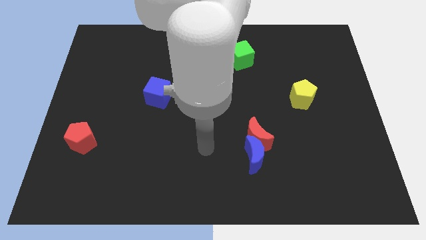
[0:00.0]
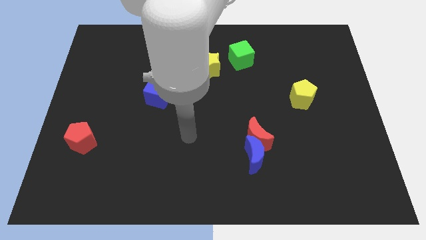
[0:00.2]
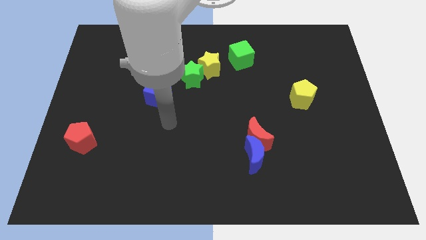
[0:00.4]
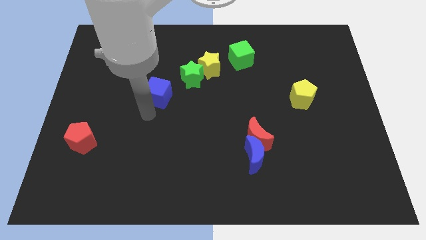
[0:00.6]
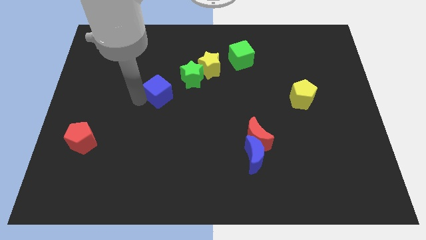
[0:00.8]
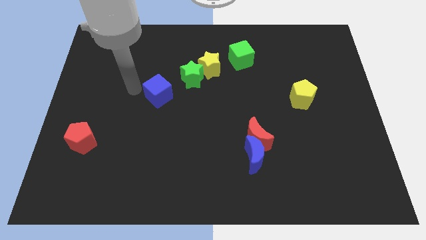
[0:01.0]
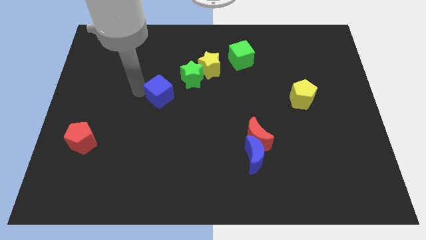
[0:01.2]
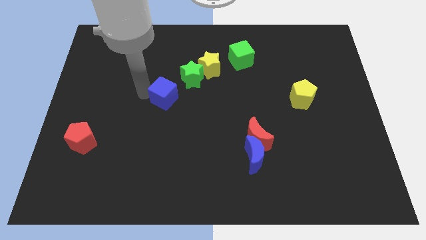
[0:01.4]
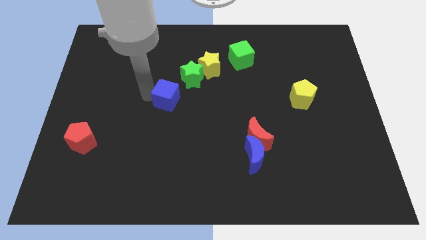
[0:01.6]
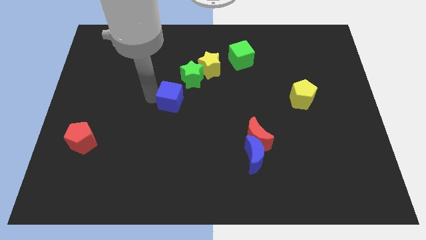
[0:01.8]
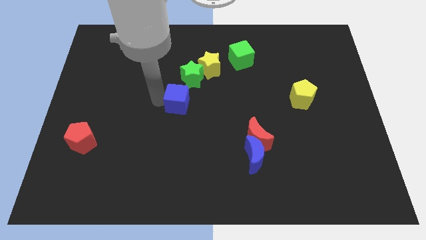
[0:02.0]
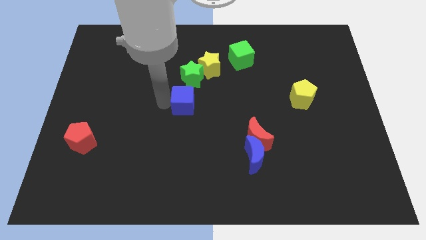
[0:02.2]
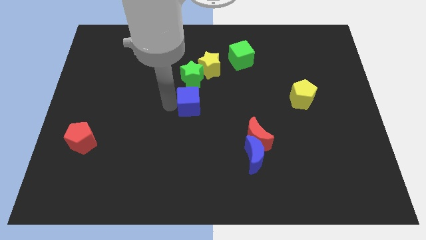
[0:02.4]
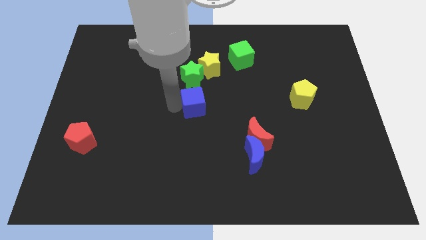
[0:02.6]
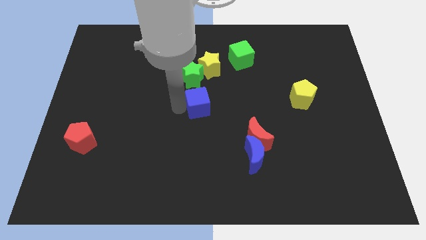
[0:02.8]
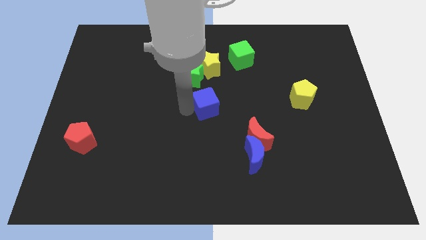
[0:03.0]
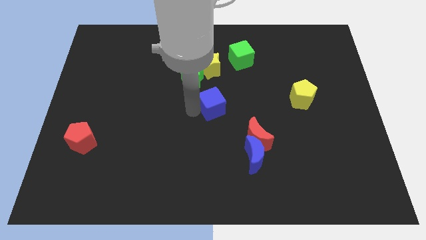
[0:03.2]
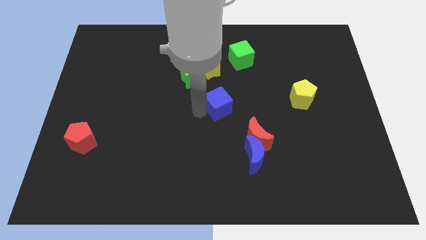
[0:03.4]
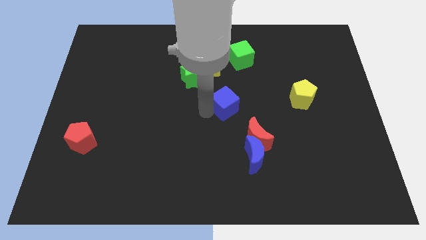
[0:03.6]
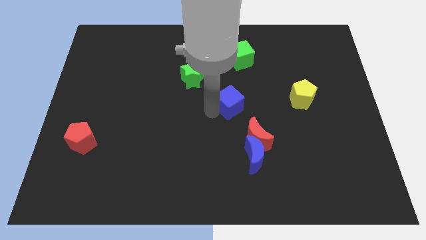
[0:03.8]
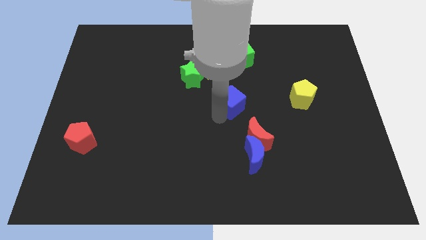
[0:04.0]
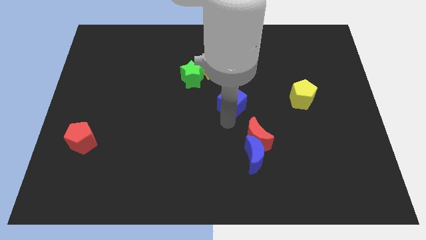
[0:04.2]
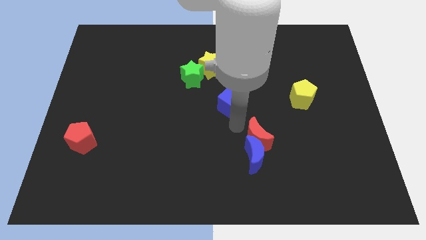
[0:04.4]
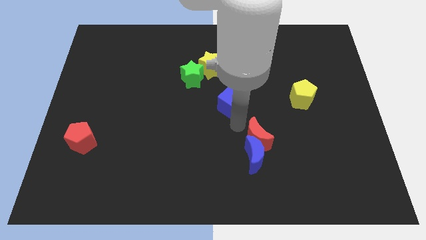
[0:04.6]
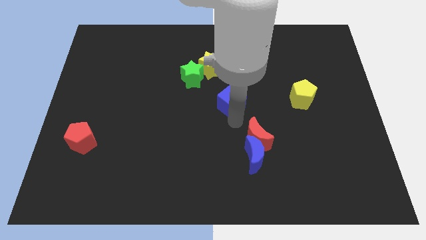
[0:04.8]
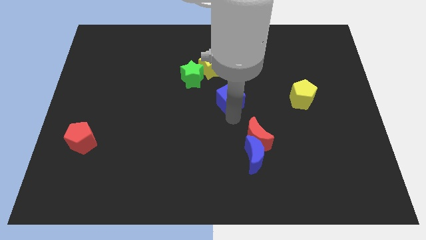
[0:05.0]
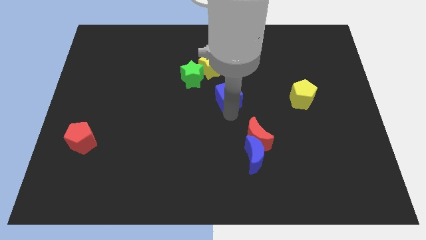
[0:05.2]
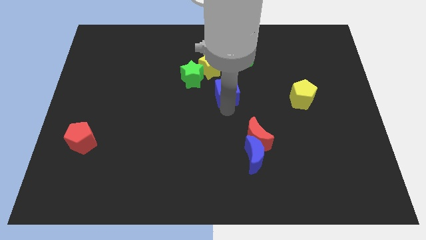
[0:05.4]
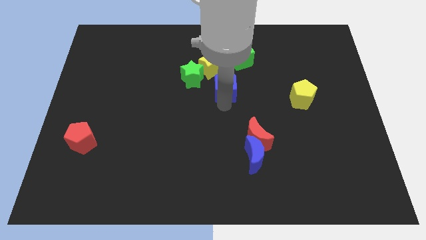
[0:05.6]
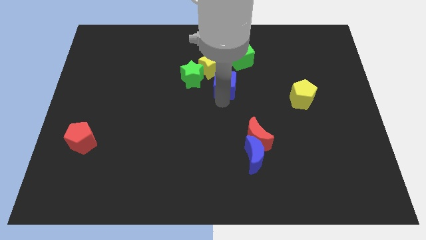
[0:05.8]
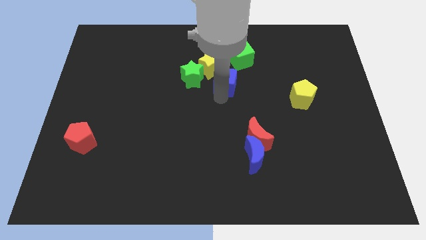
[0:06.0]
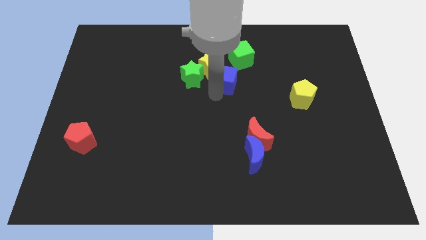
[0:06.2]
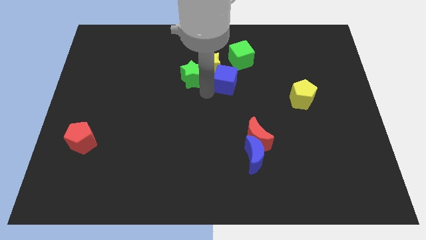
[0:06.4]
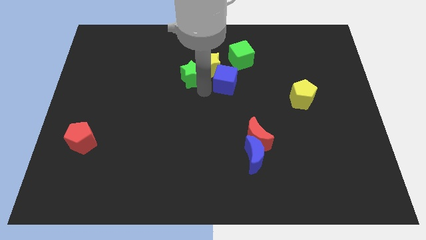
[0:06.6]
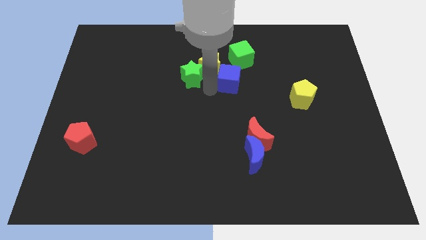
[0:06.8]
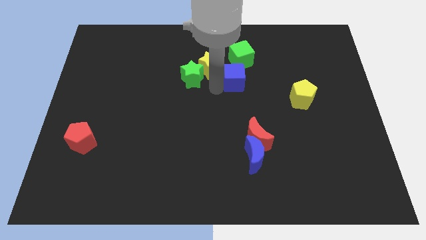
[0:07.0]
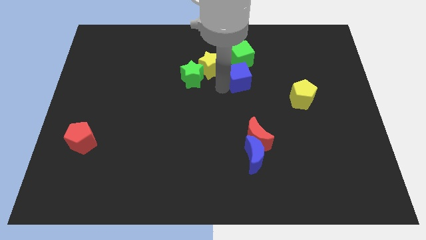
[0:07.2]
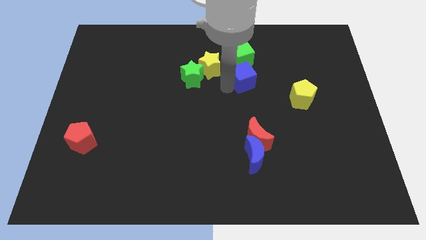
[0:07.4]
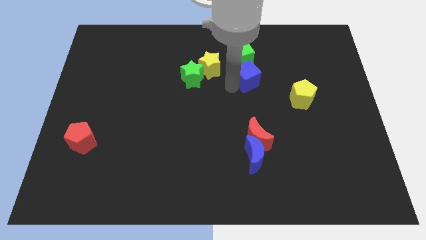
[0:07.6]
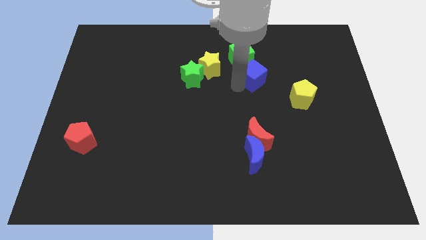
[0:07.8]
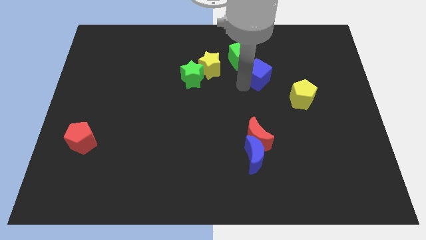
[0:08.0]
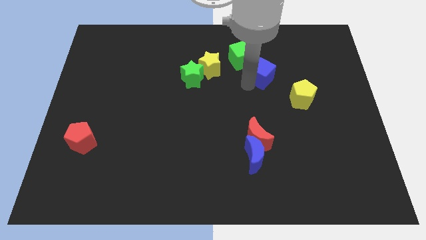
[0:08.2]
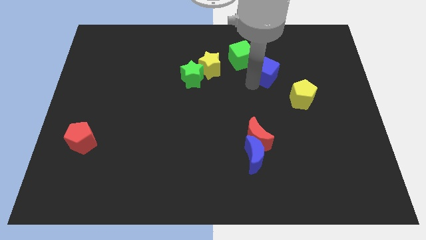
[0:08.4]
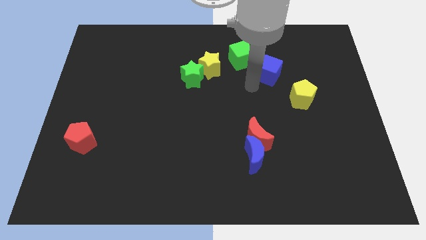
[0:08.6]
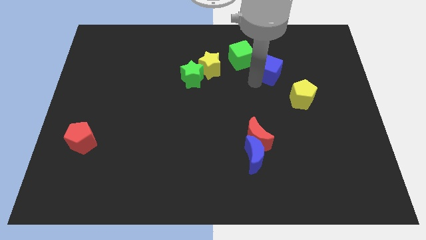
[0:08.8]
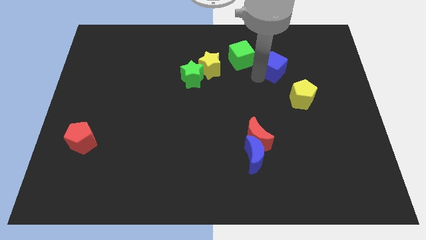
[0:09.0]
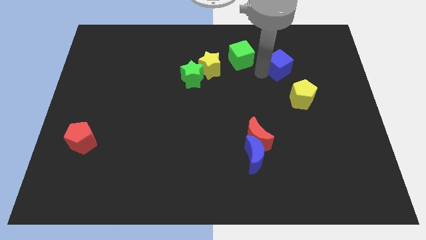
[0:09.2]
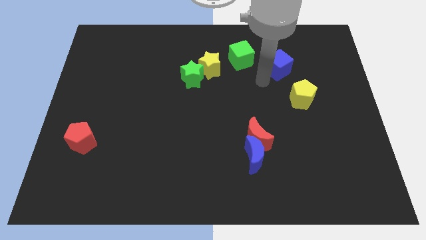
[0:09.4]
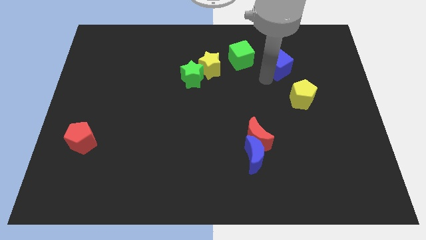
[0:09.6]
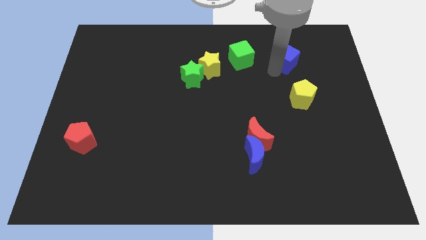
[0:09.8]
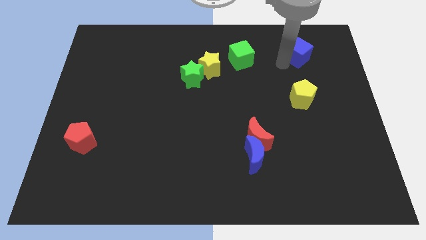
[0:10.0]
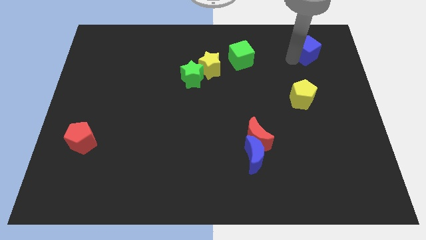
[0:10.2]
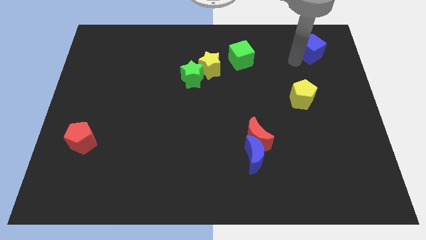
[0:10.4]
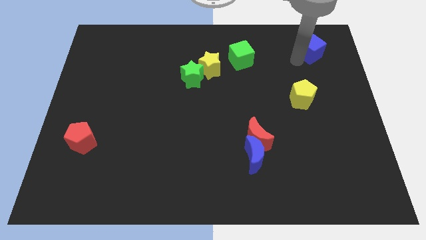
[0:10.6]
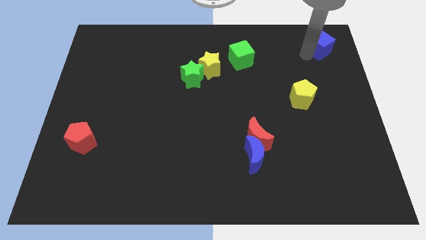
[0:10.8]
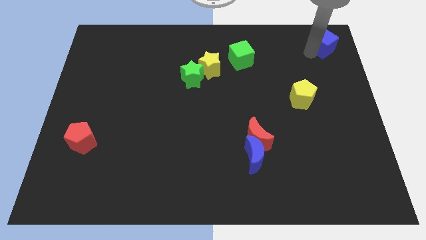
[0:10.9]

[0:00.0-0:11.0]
move the blue cube to the top right

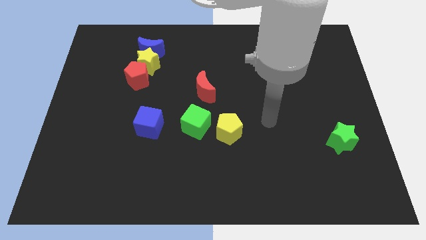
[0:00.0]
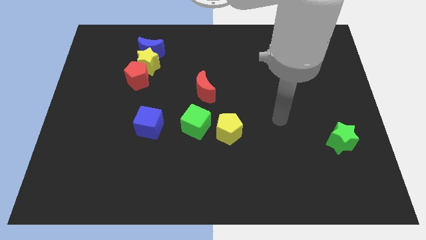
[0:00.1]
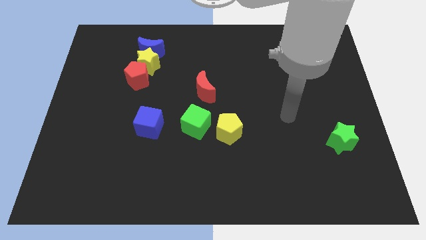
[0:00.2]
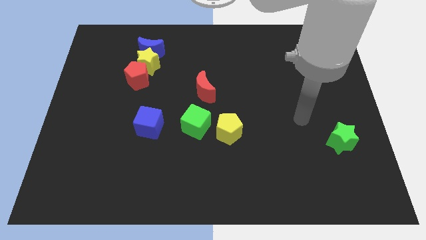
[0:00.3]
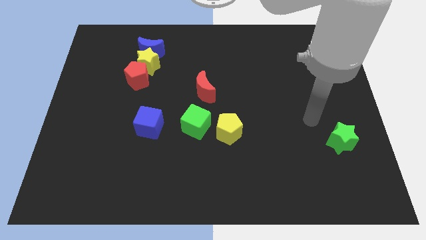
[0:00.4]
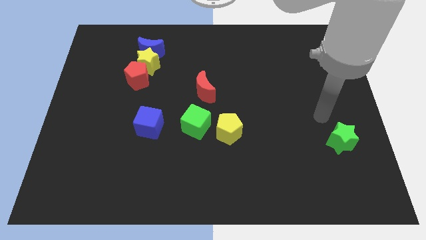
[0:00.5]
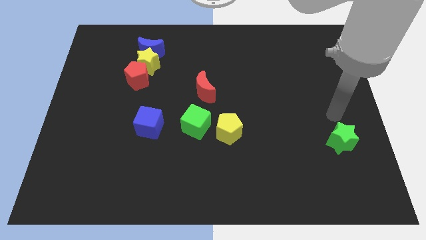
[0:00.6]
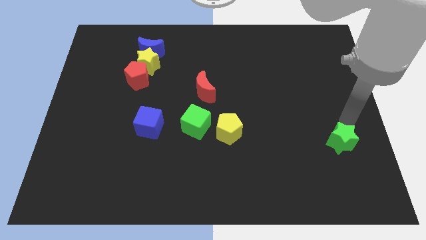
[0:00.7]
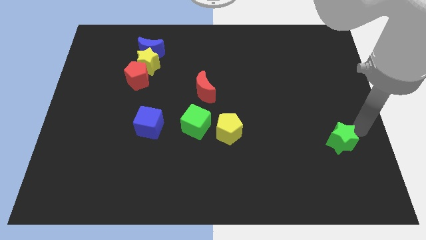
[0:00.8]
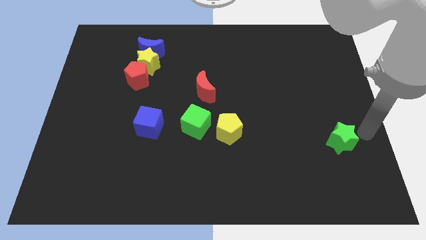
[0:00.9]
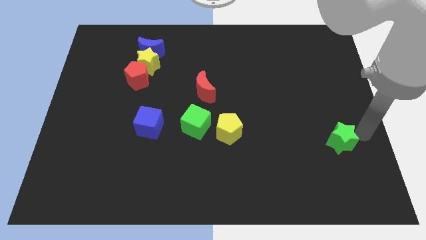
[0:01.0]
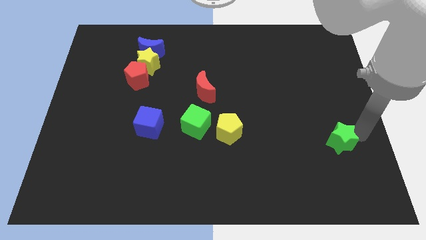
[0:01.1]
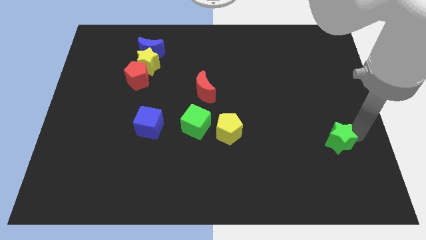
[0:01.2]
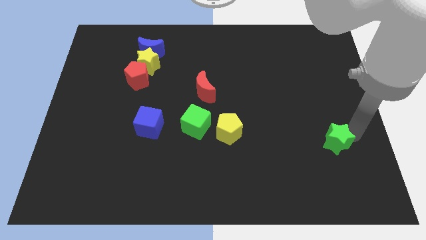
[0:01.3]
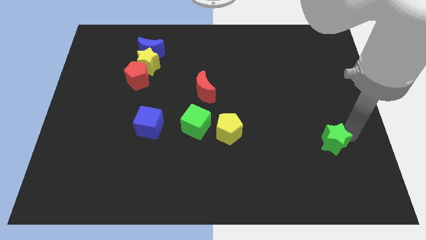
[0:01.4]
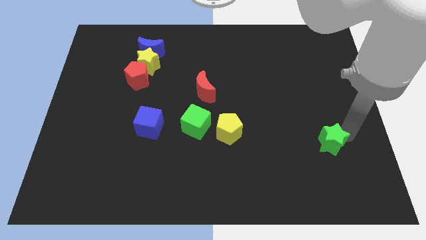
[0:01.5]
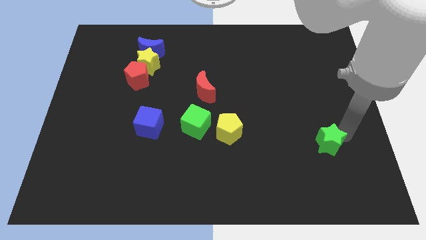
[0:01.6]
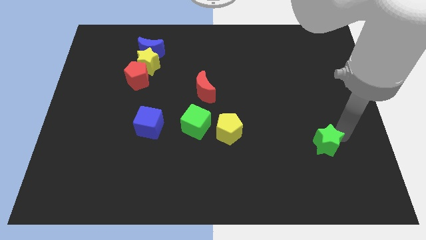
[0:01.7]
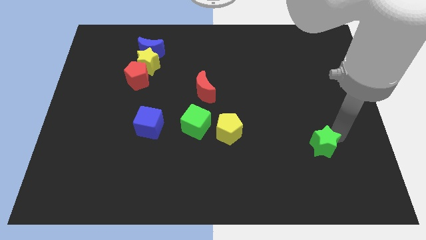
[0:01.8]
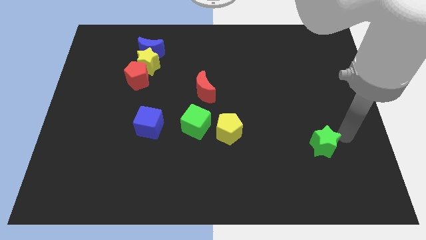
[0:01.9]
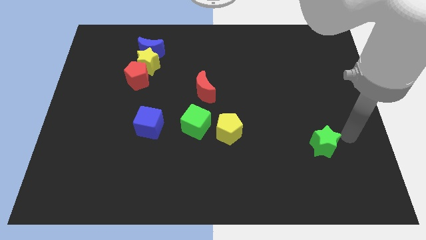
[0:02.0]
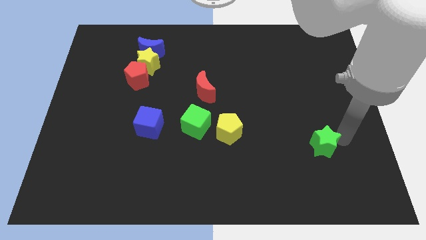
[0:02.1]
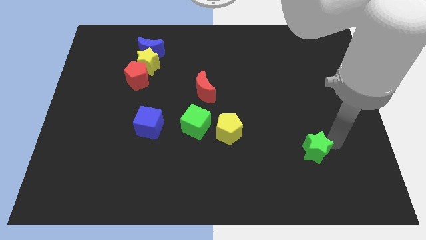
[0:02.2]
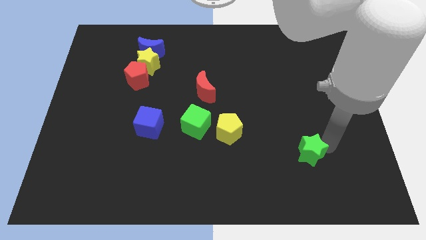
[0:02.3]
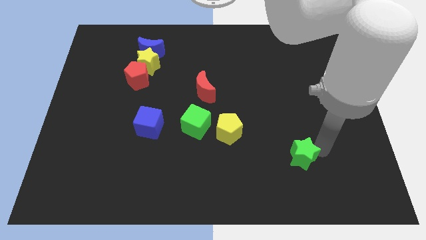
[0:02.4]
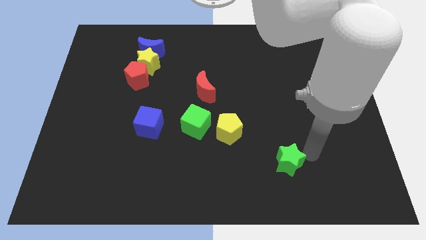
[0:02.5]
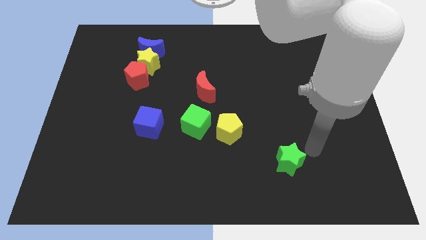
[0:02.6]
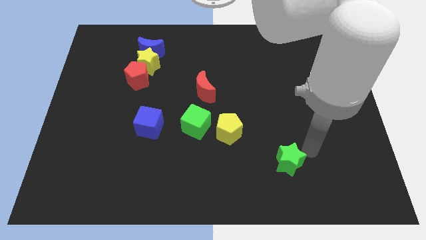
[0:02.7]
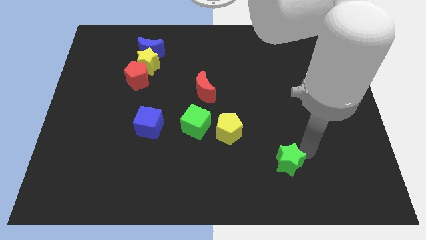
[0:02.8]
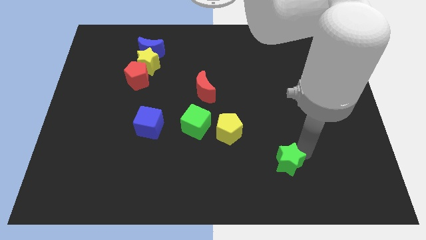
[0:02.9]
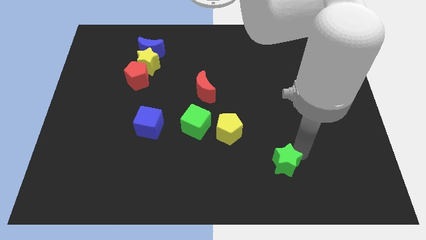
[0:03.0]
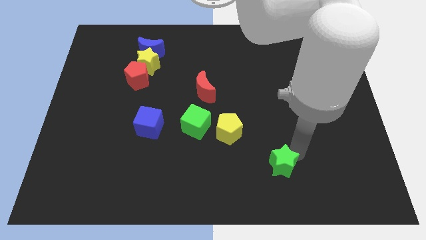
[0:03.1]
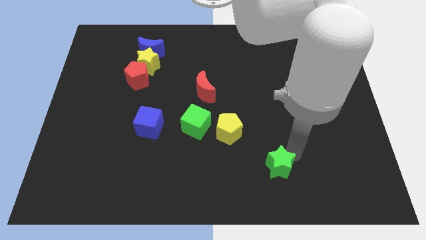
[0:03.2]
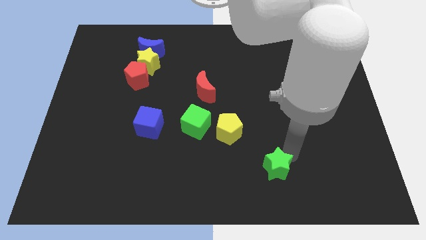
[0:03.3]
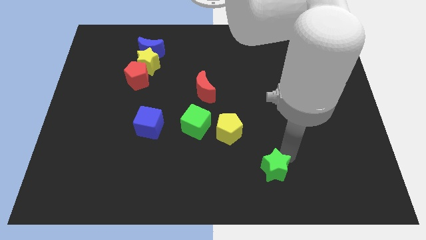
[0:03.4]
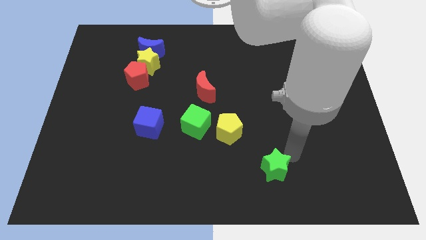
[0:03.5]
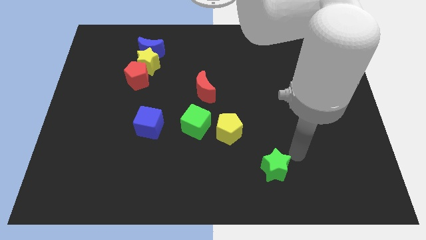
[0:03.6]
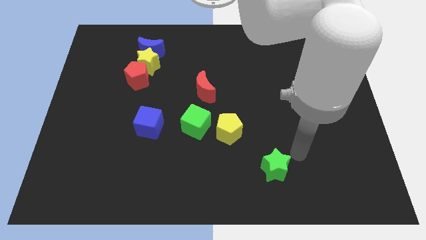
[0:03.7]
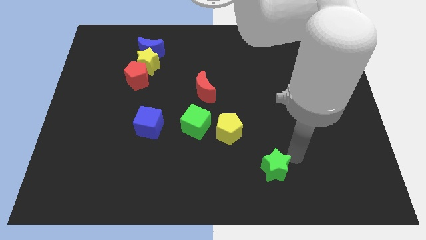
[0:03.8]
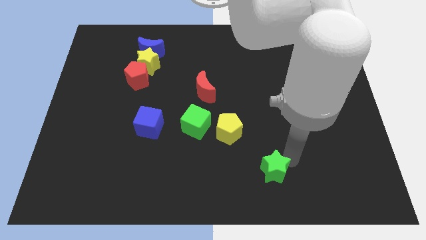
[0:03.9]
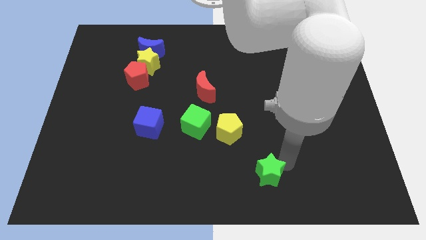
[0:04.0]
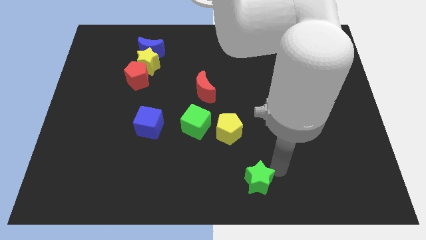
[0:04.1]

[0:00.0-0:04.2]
push the green star to the bottom side
